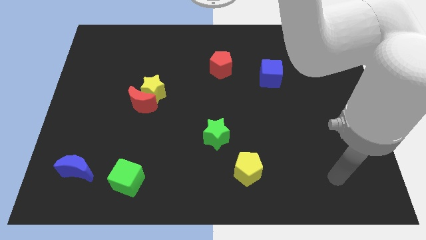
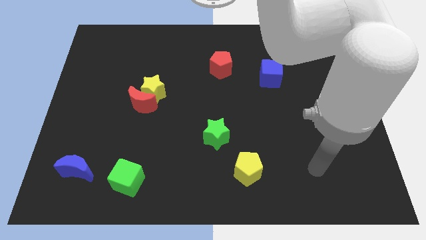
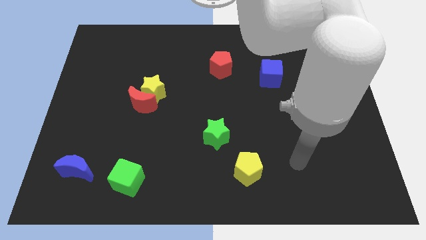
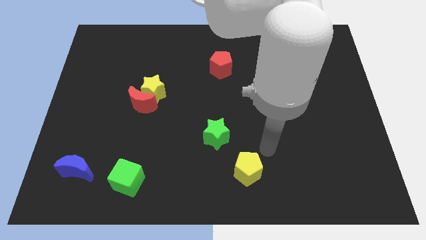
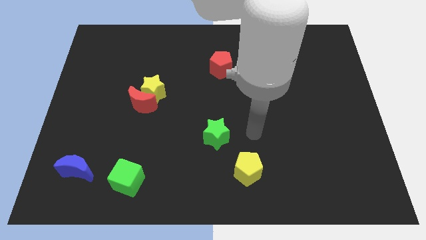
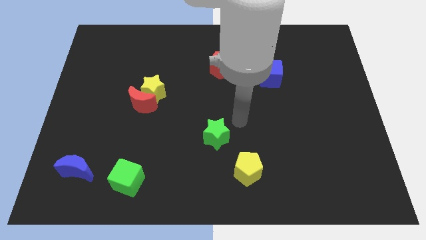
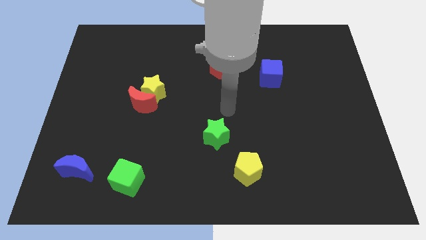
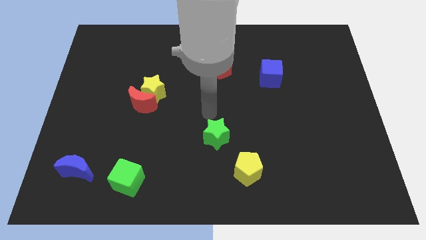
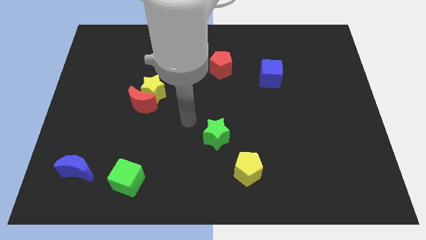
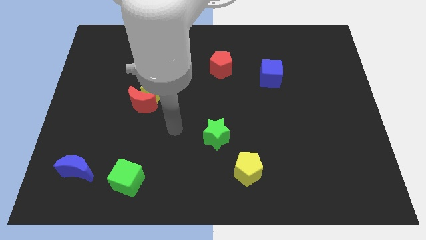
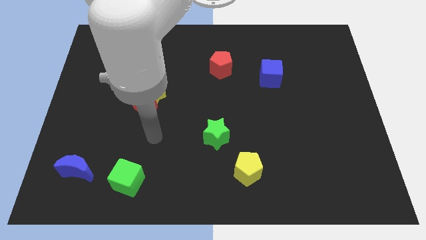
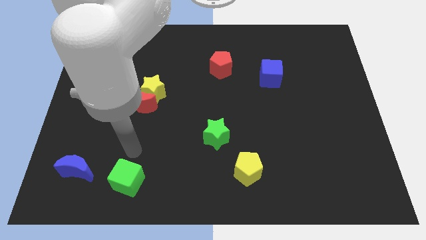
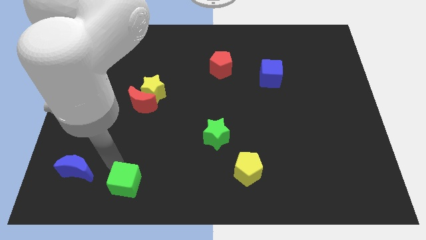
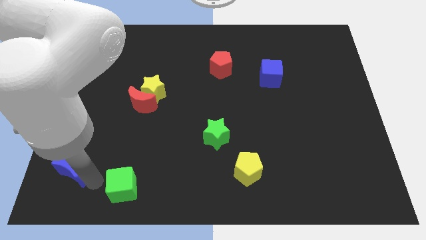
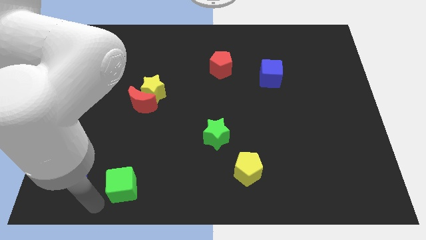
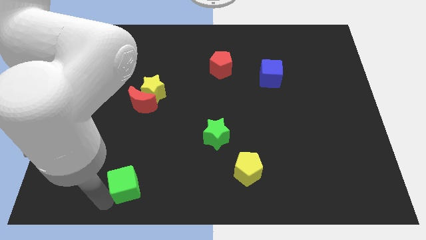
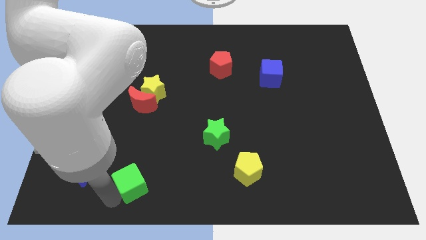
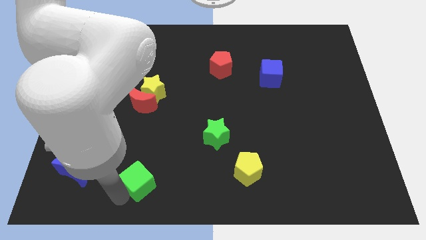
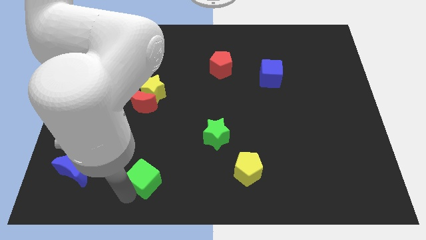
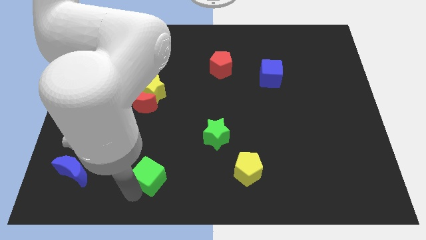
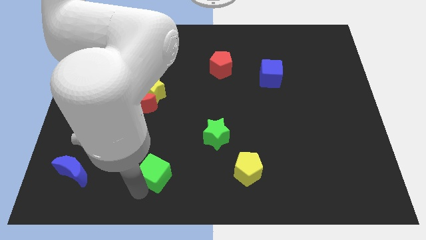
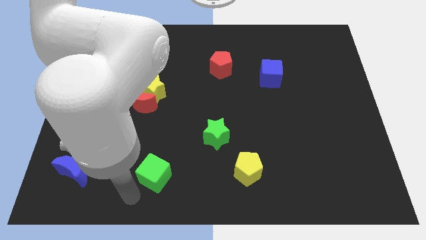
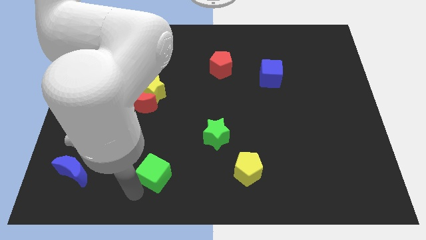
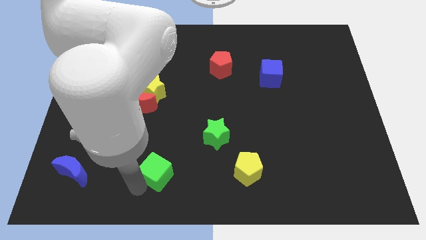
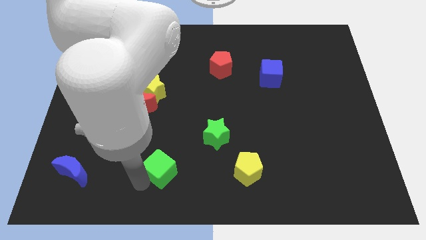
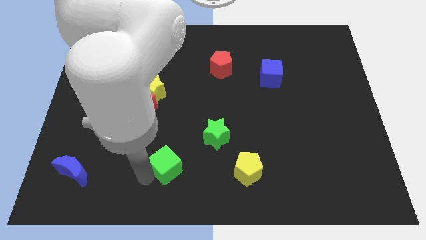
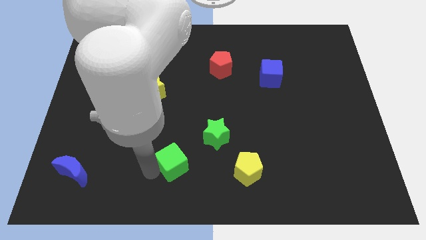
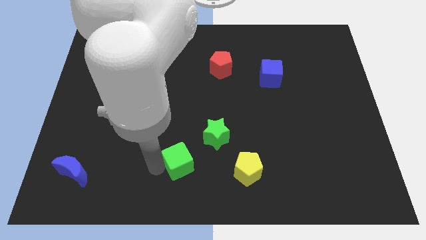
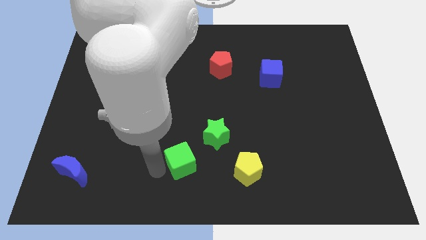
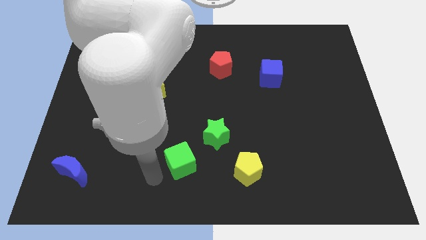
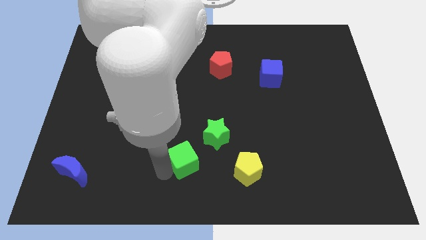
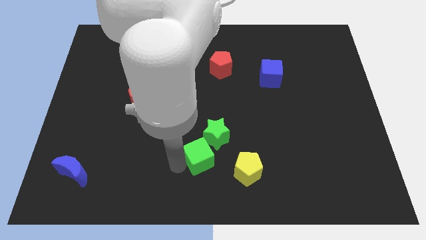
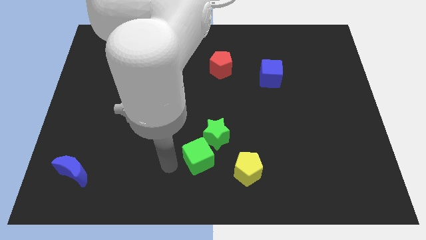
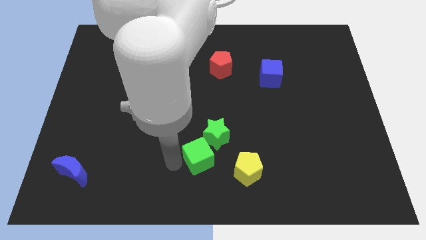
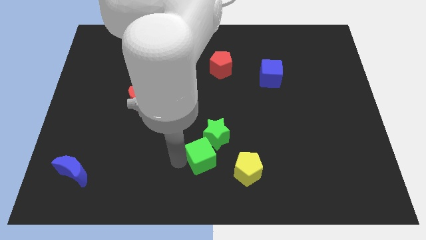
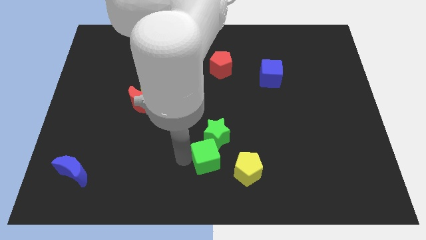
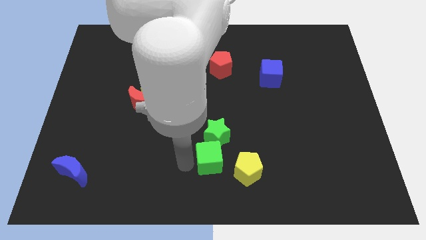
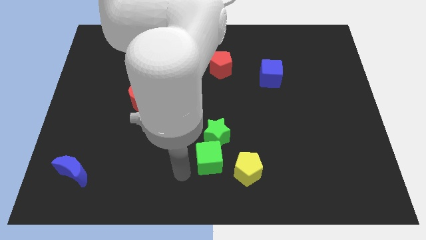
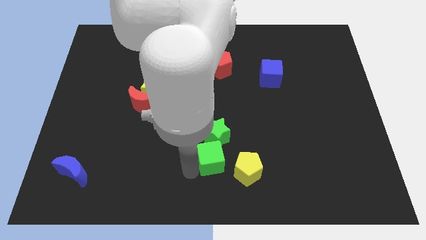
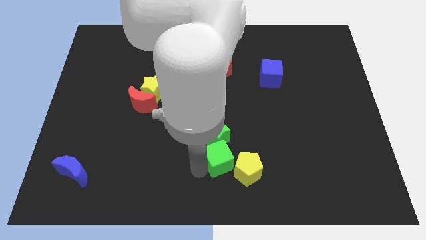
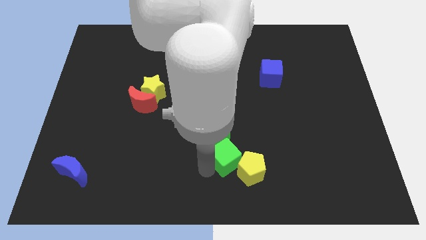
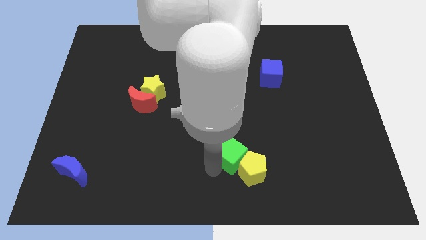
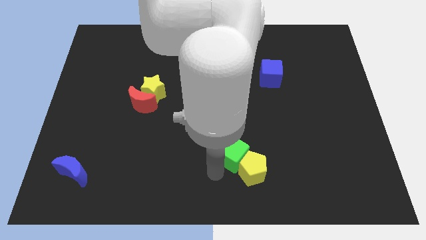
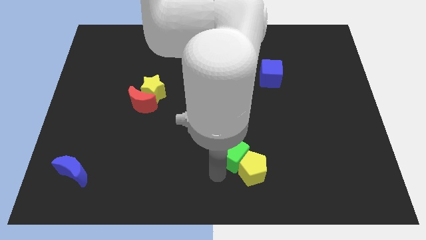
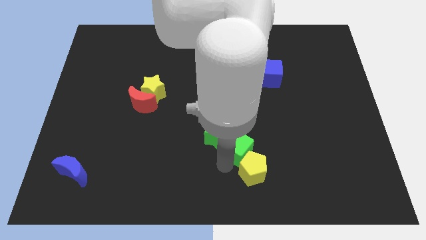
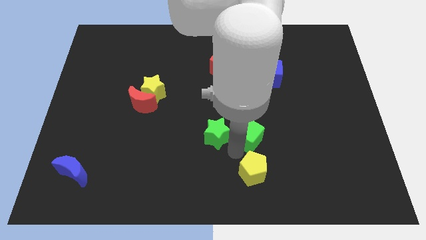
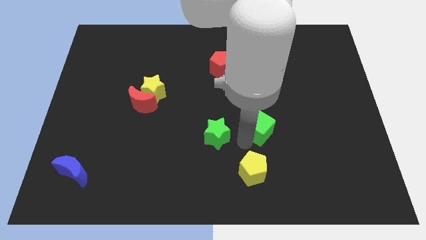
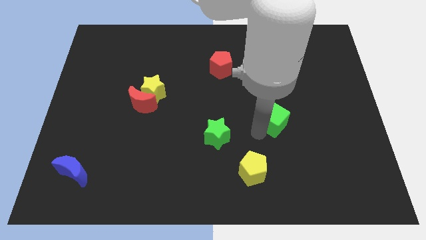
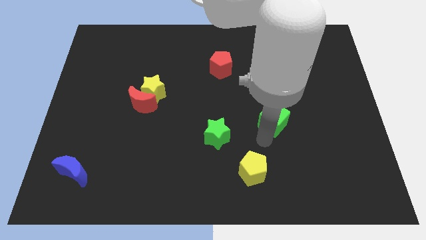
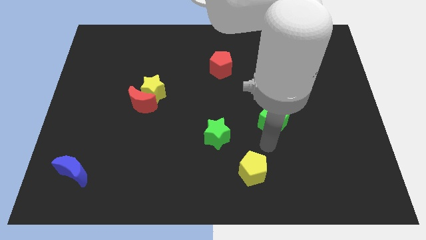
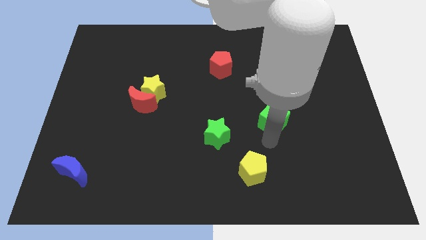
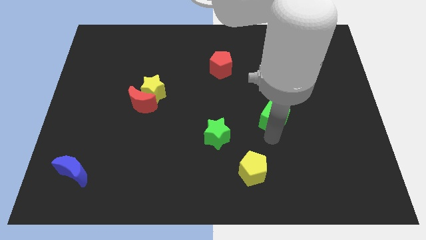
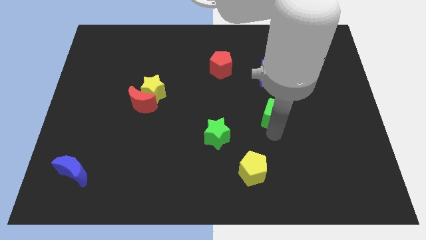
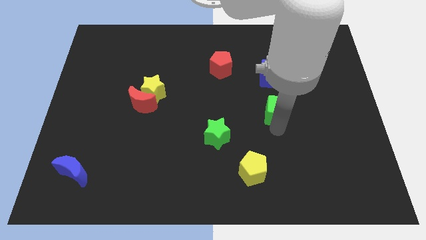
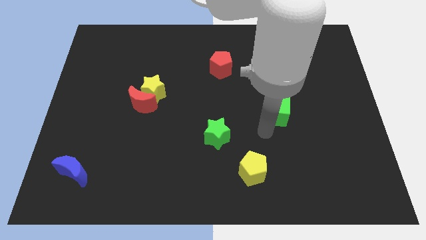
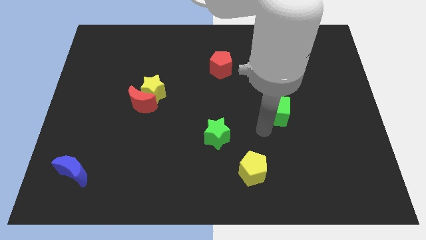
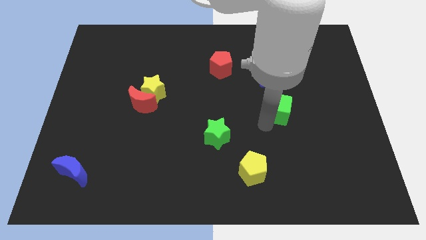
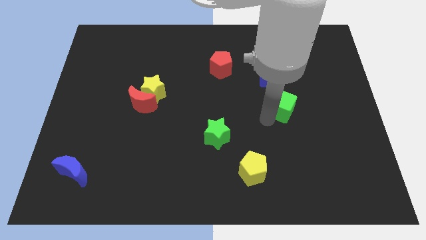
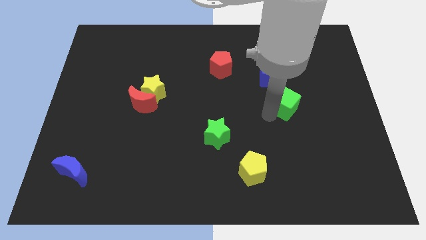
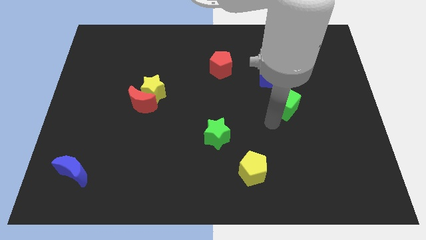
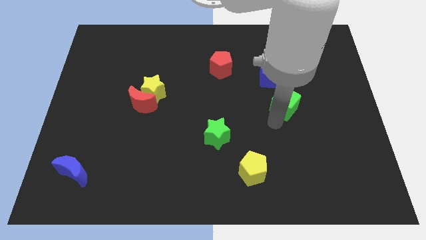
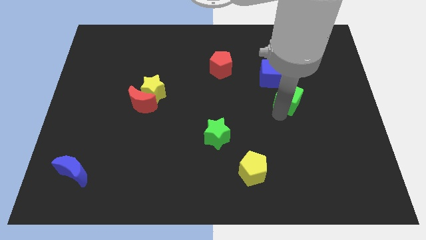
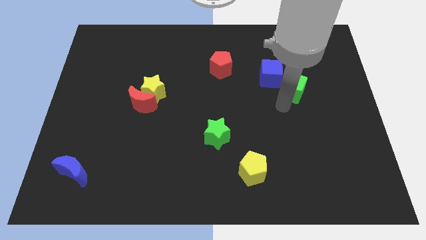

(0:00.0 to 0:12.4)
put the green cube to the right side of the blue cube

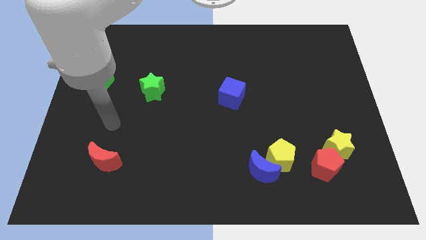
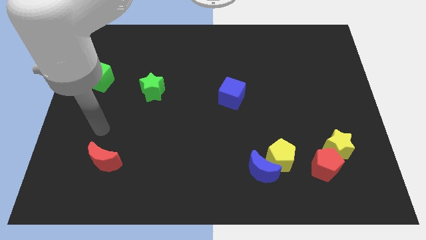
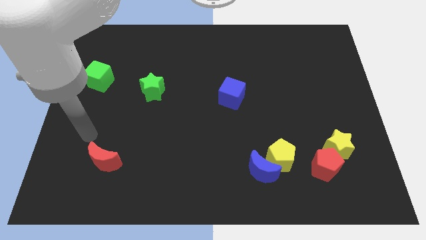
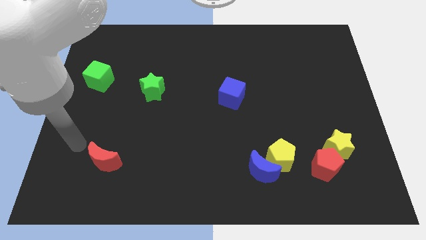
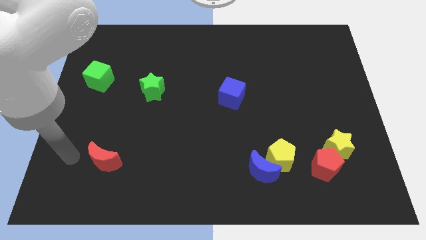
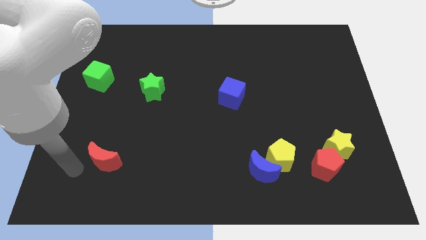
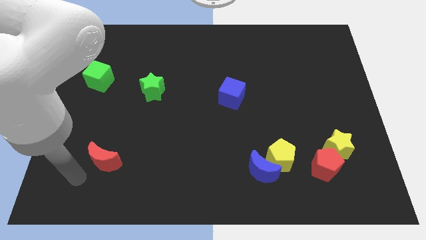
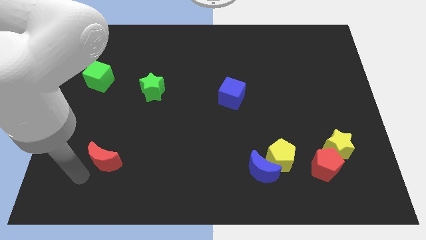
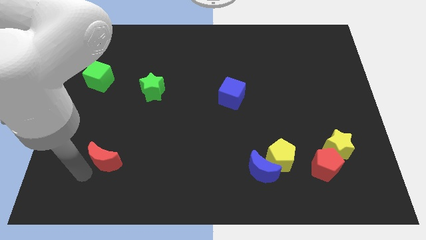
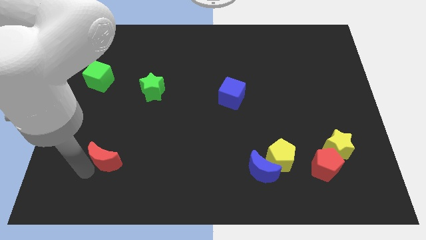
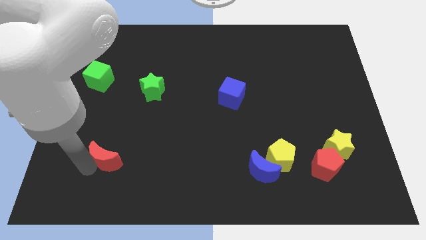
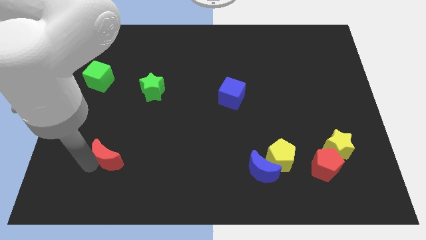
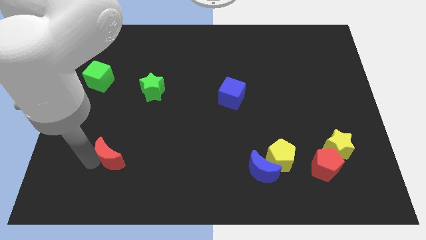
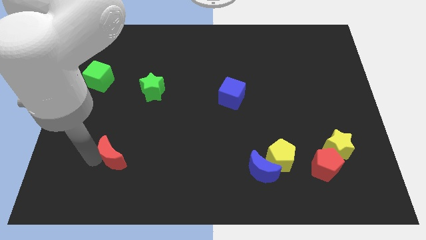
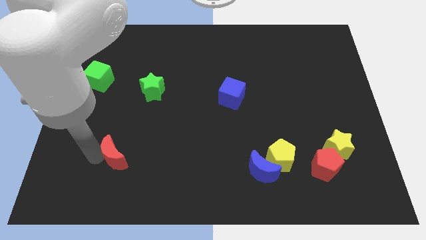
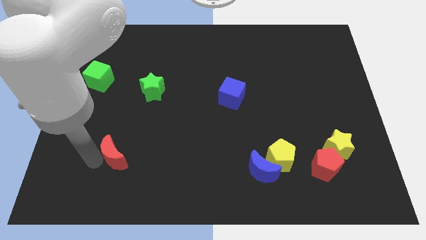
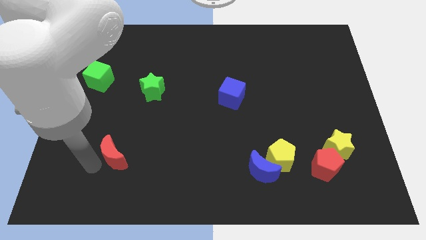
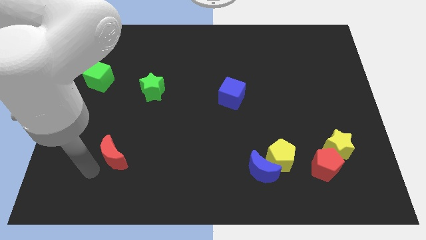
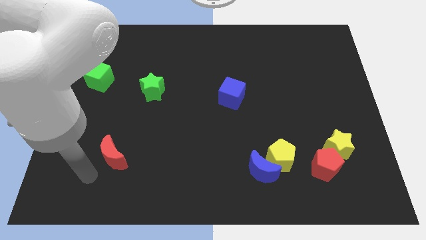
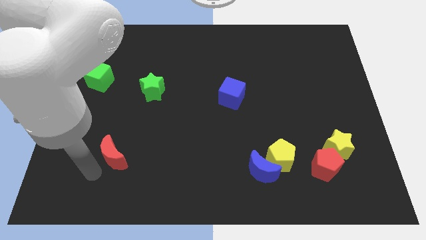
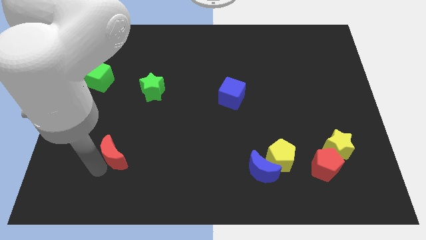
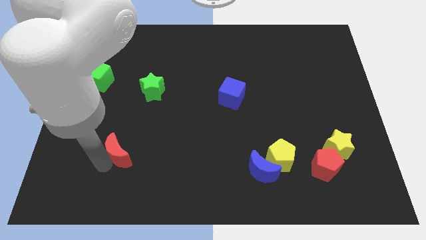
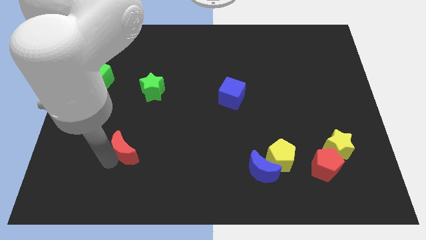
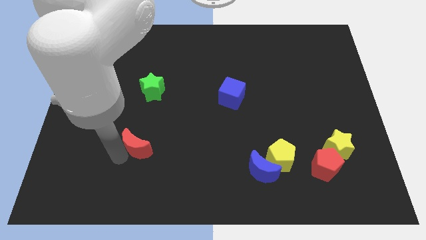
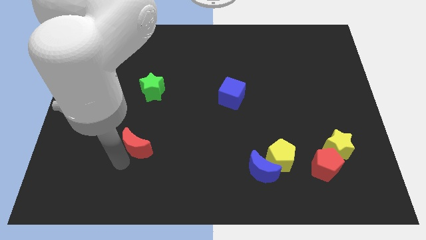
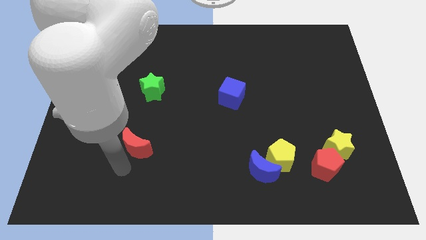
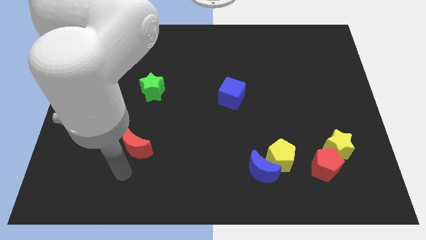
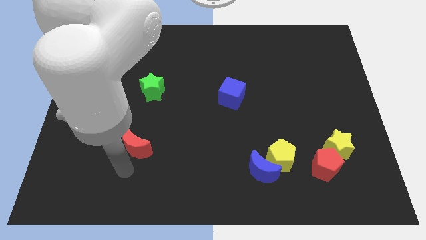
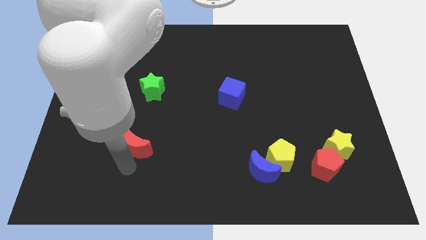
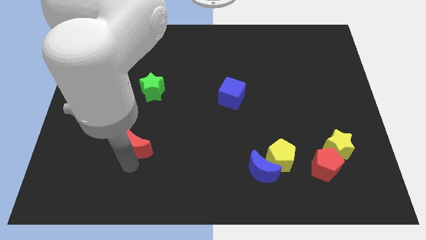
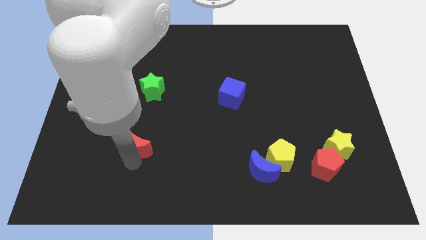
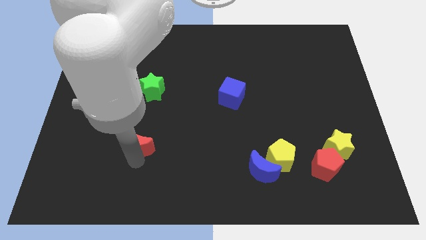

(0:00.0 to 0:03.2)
move the red moon to the bottom of the green star
